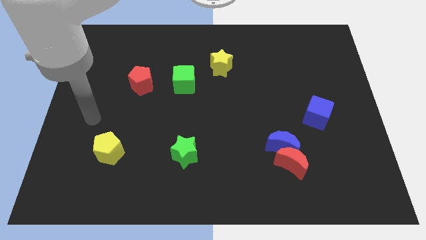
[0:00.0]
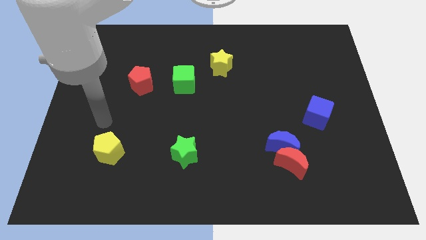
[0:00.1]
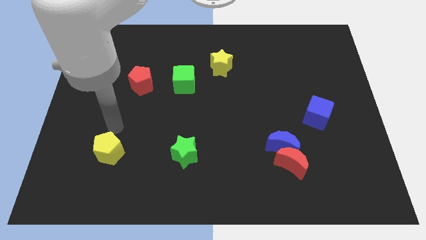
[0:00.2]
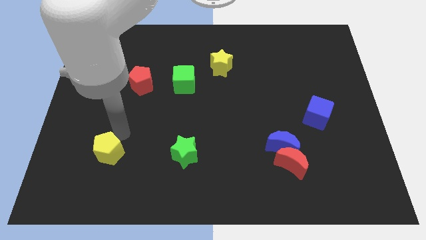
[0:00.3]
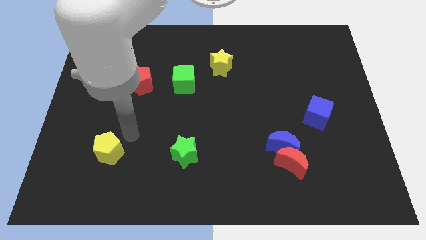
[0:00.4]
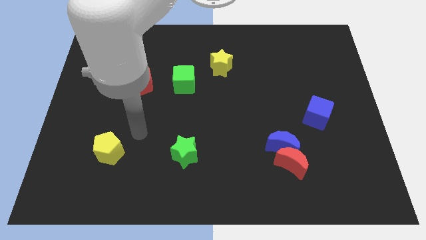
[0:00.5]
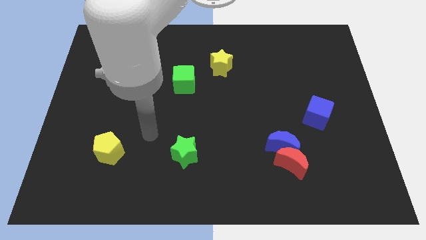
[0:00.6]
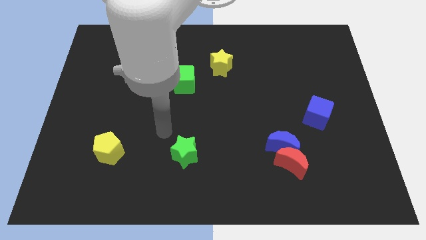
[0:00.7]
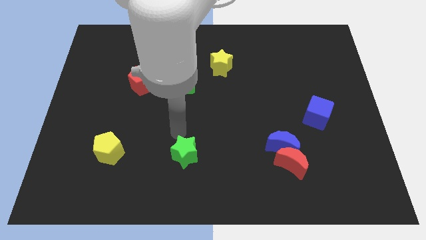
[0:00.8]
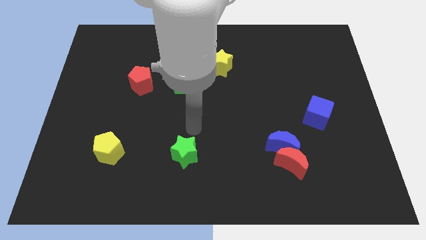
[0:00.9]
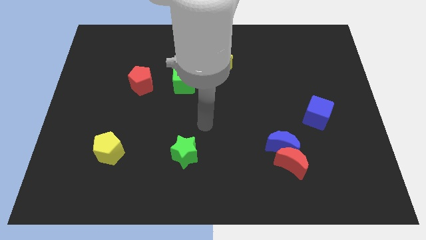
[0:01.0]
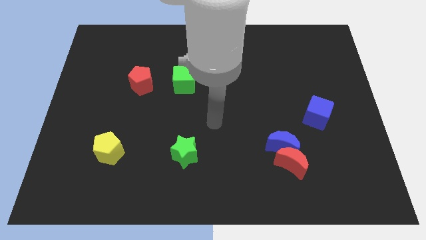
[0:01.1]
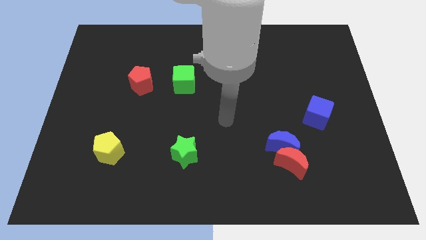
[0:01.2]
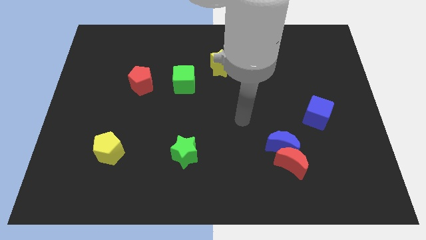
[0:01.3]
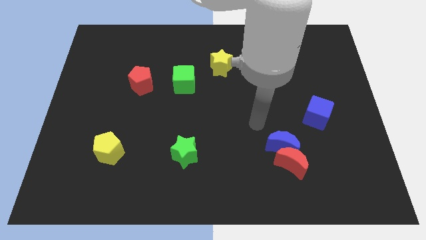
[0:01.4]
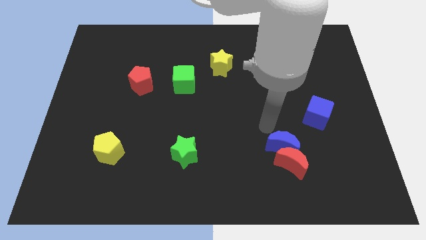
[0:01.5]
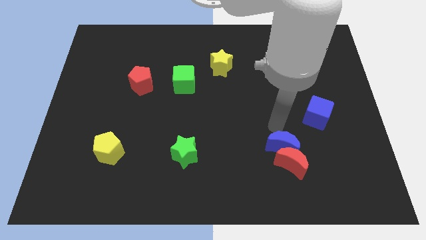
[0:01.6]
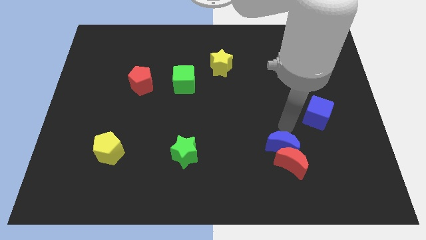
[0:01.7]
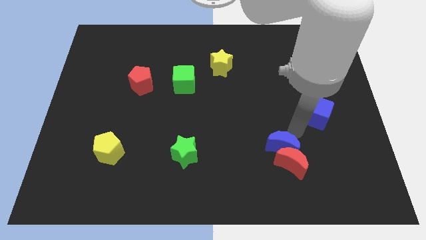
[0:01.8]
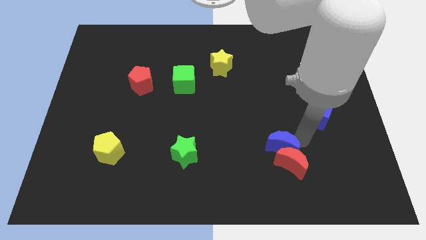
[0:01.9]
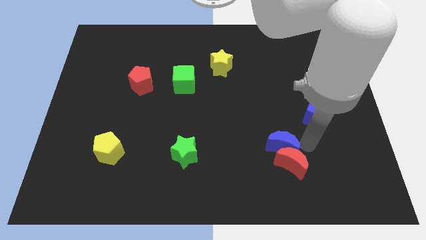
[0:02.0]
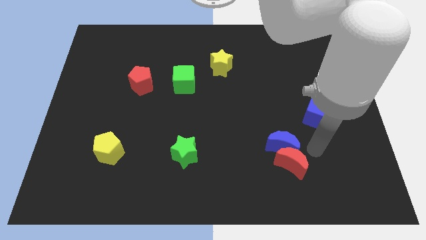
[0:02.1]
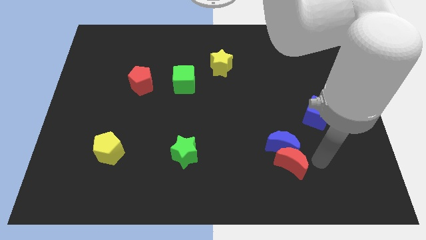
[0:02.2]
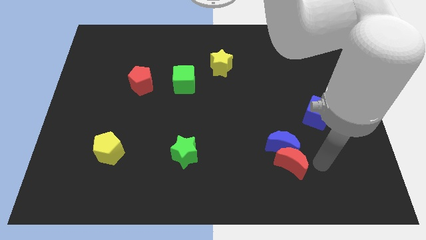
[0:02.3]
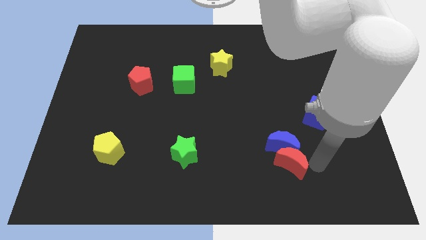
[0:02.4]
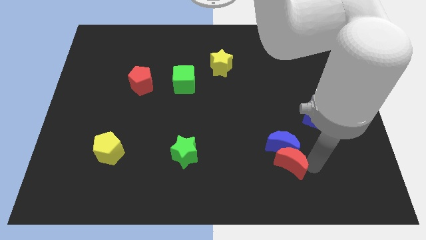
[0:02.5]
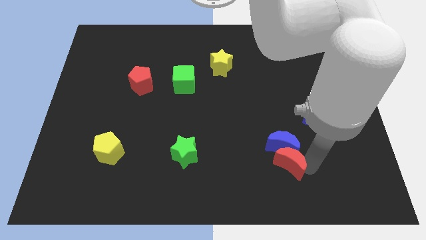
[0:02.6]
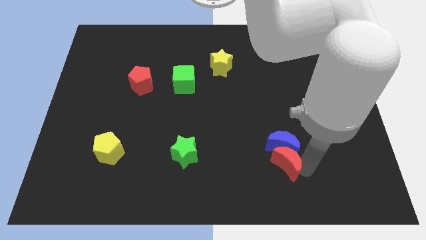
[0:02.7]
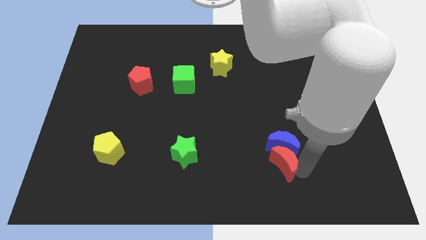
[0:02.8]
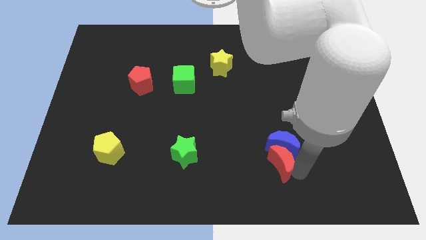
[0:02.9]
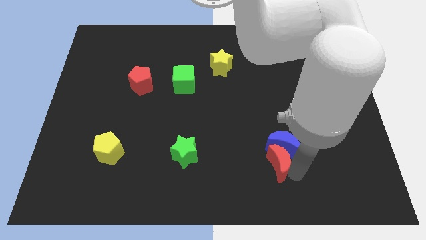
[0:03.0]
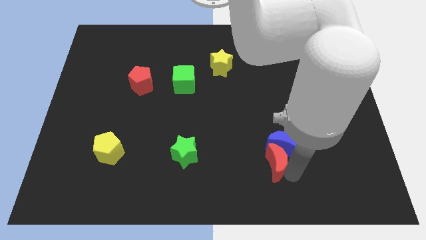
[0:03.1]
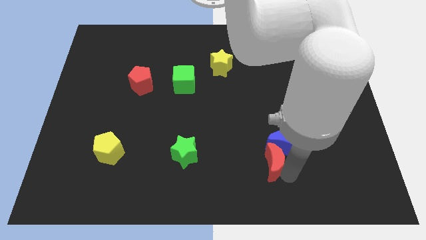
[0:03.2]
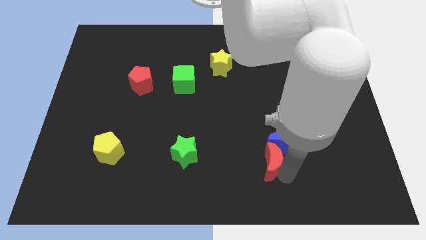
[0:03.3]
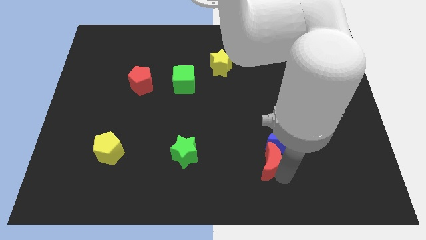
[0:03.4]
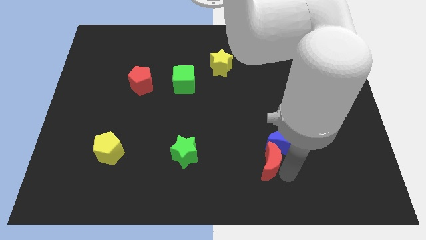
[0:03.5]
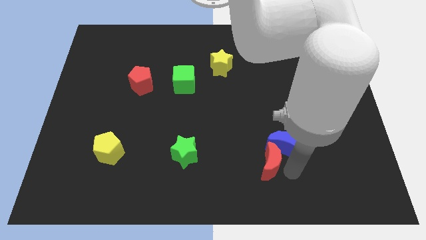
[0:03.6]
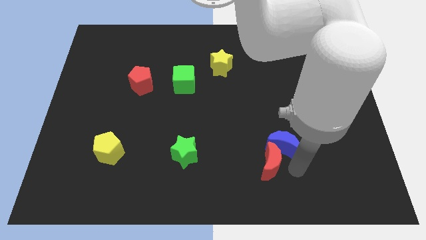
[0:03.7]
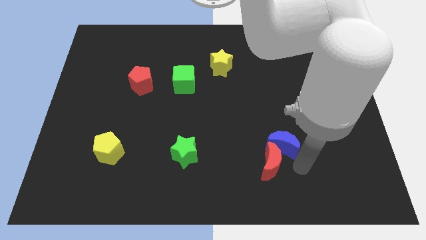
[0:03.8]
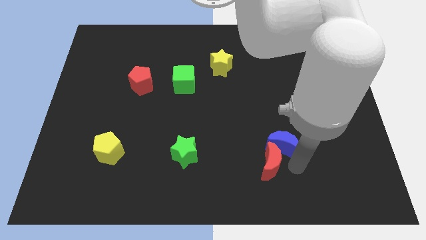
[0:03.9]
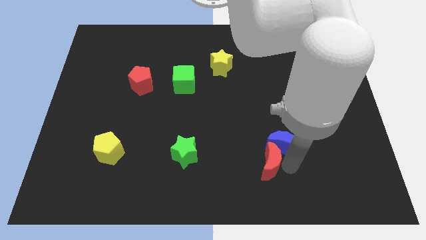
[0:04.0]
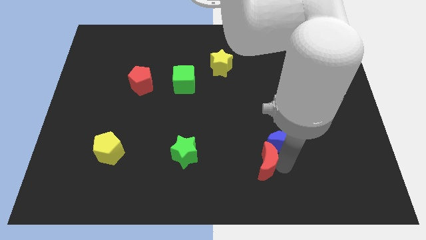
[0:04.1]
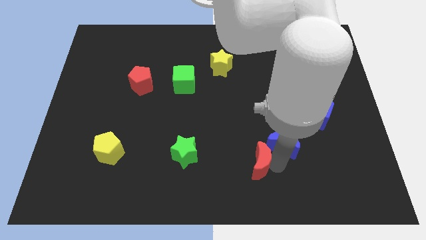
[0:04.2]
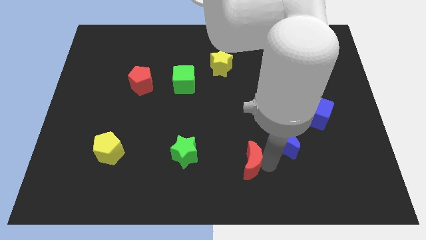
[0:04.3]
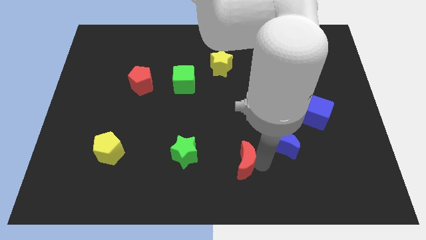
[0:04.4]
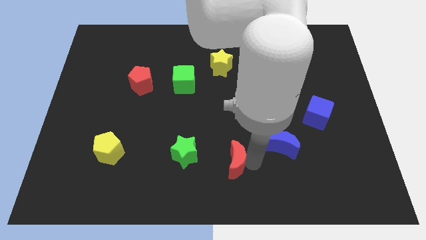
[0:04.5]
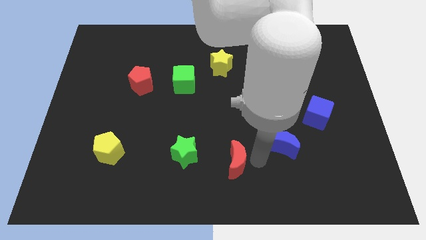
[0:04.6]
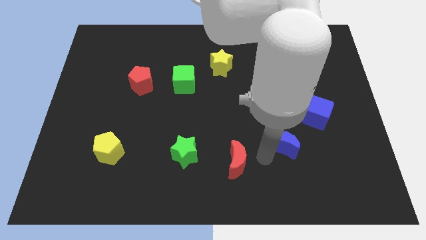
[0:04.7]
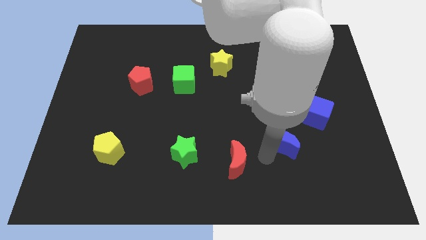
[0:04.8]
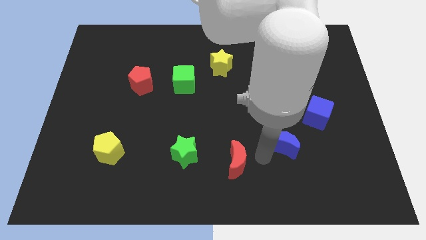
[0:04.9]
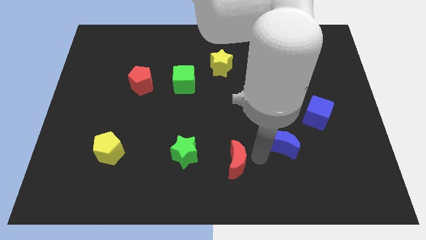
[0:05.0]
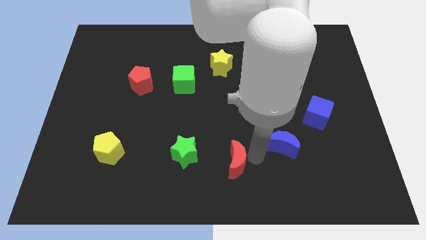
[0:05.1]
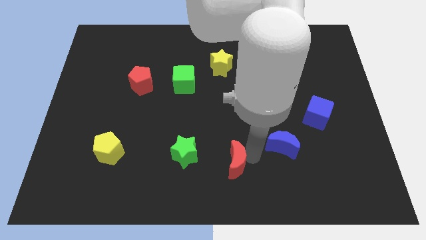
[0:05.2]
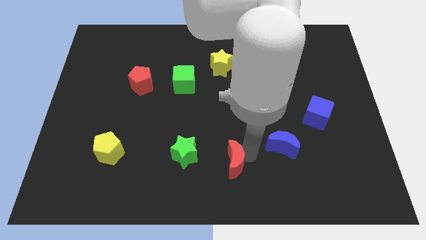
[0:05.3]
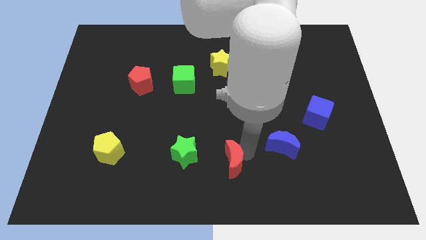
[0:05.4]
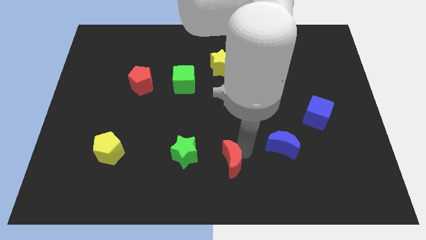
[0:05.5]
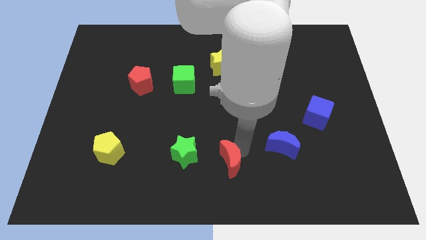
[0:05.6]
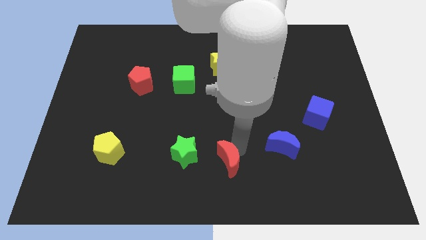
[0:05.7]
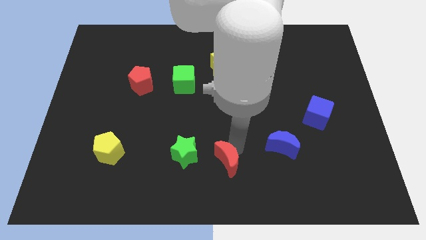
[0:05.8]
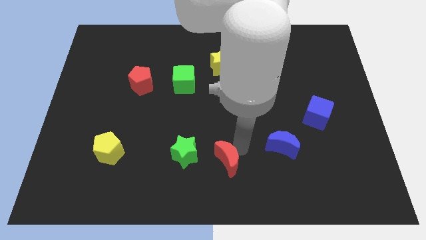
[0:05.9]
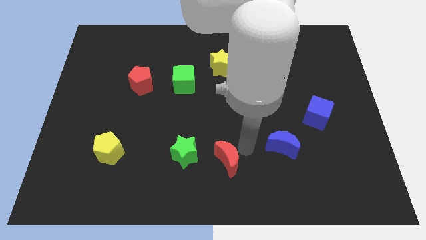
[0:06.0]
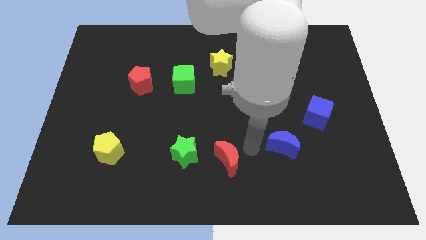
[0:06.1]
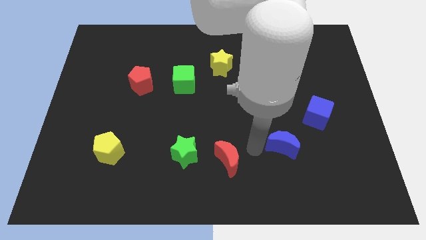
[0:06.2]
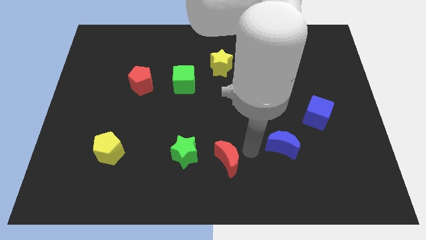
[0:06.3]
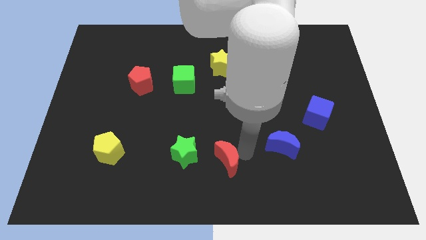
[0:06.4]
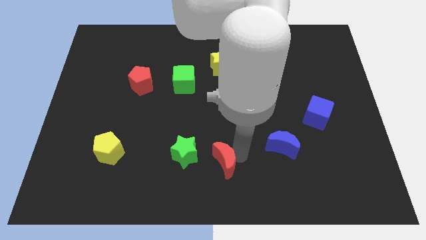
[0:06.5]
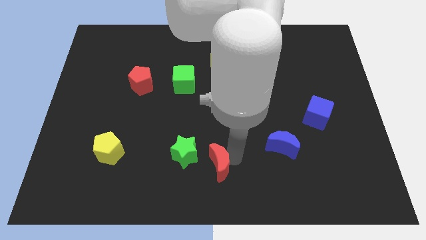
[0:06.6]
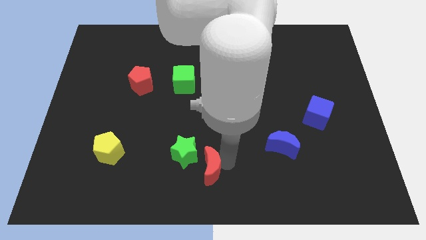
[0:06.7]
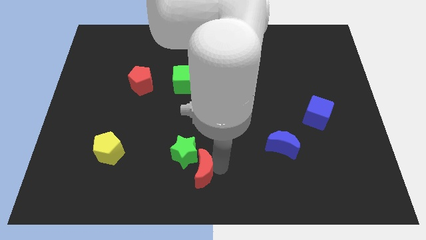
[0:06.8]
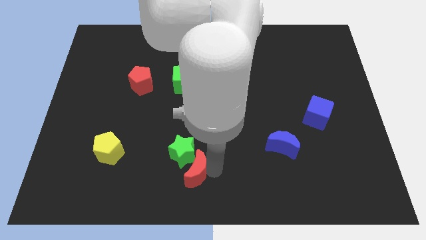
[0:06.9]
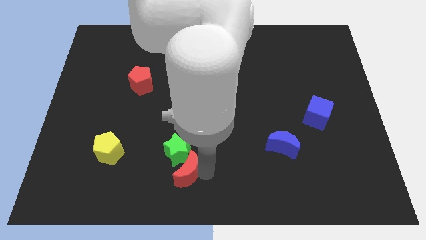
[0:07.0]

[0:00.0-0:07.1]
push the red moon to the left

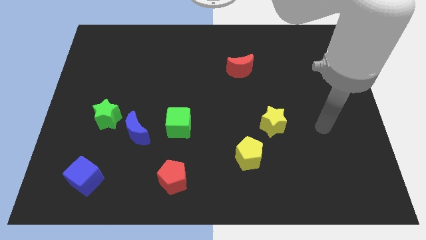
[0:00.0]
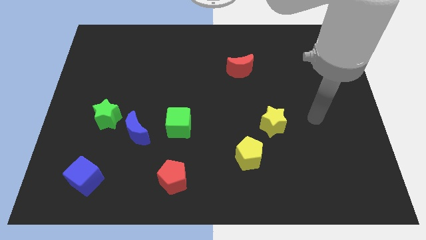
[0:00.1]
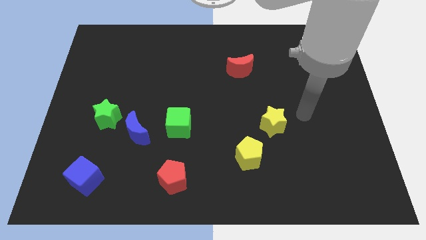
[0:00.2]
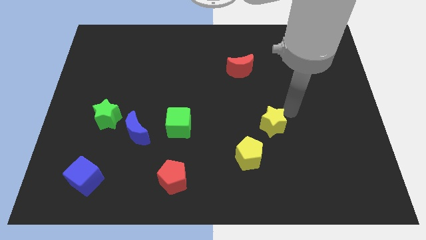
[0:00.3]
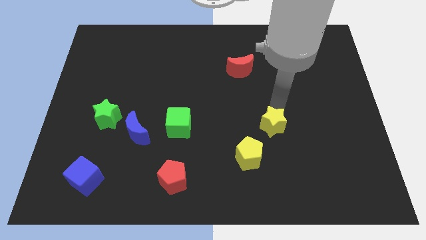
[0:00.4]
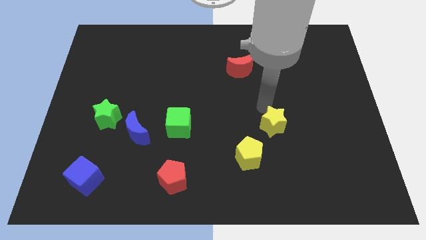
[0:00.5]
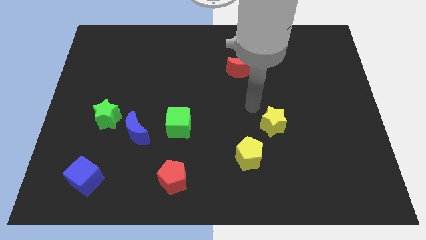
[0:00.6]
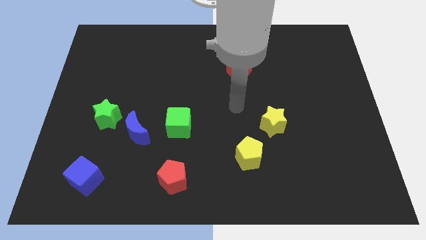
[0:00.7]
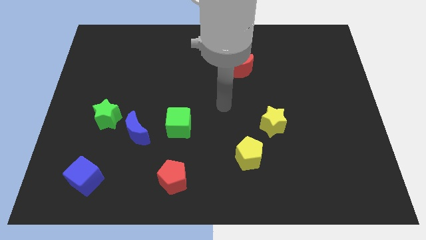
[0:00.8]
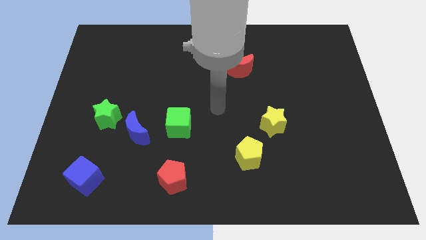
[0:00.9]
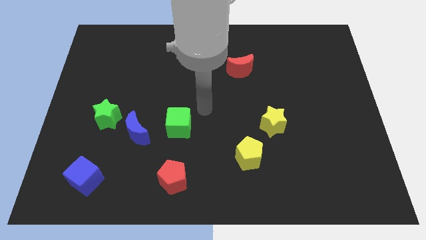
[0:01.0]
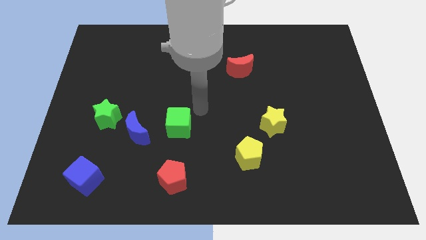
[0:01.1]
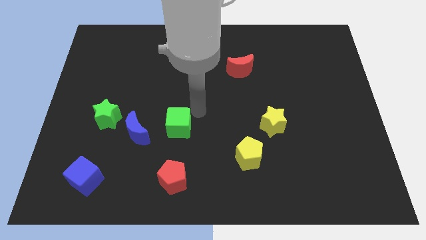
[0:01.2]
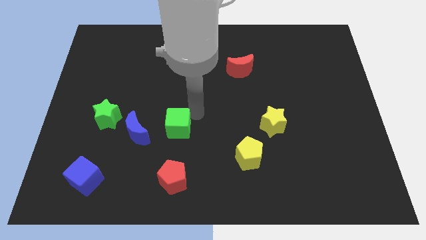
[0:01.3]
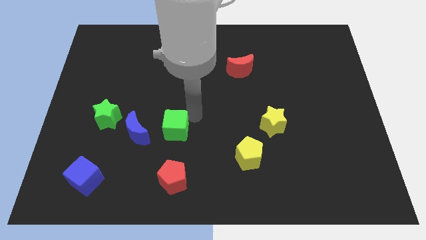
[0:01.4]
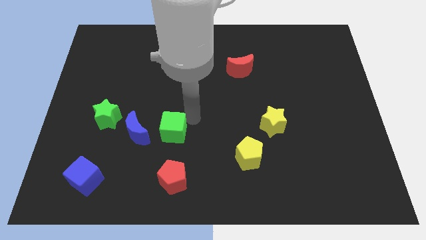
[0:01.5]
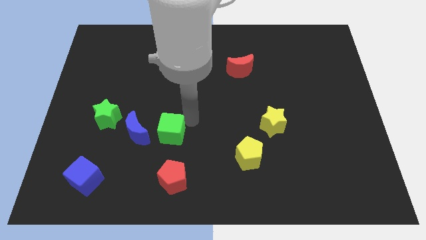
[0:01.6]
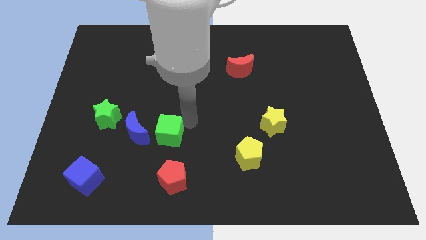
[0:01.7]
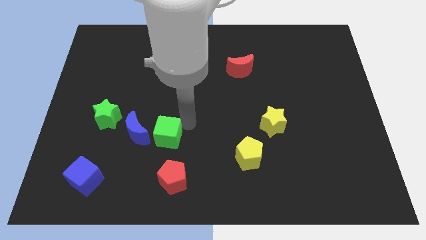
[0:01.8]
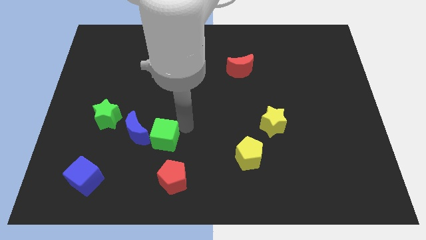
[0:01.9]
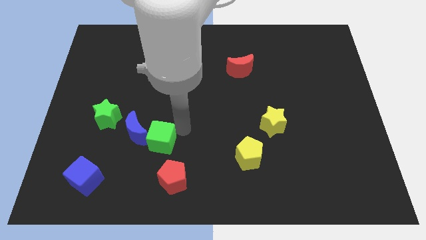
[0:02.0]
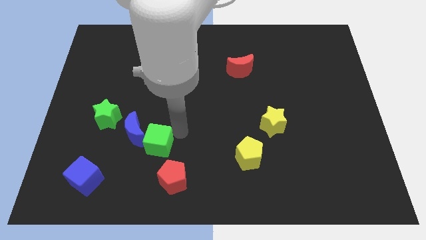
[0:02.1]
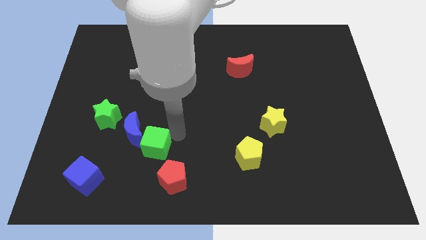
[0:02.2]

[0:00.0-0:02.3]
push the green cube slightly down and then left
